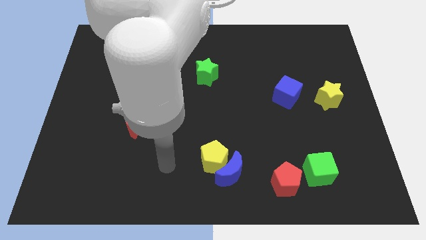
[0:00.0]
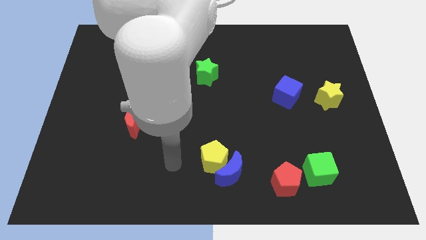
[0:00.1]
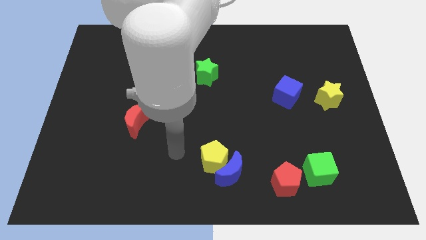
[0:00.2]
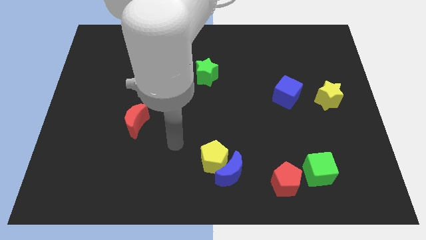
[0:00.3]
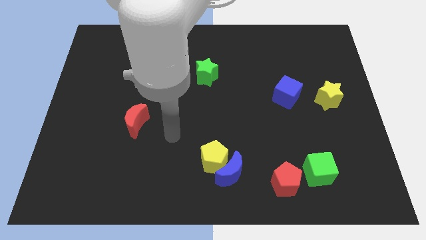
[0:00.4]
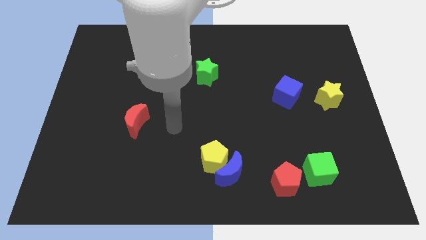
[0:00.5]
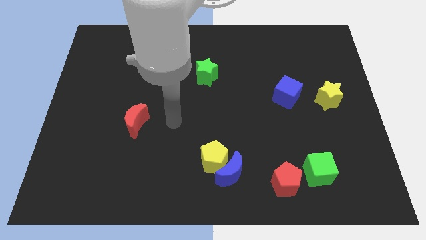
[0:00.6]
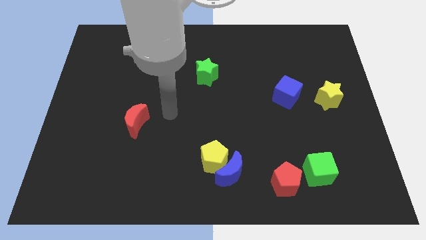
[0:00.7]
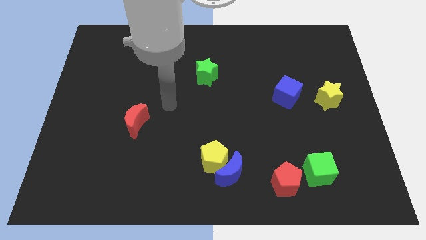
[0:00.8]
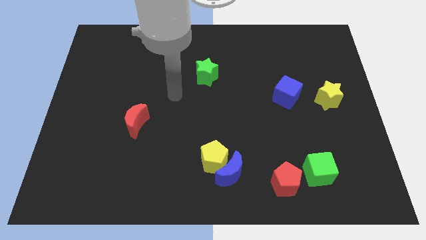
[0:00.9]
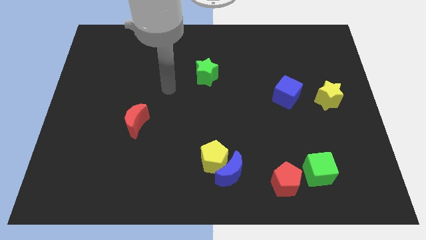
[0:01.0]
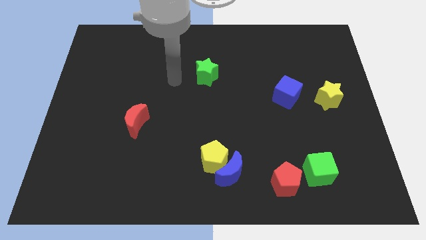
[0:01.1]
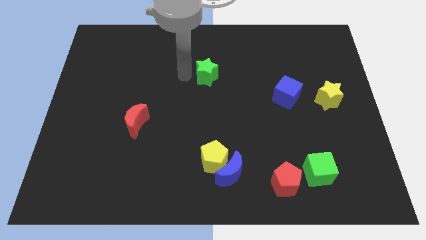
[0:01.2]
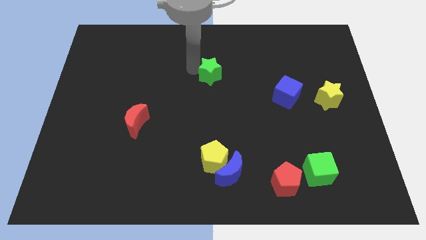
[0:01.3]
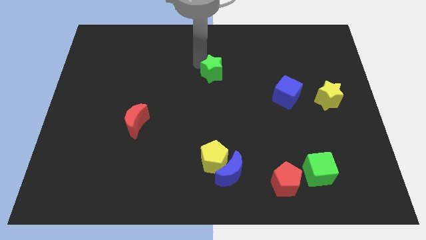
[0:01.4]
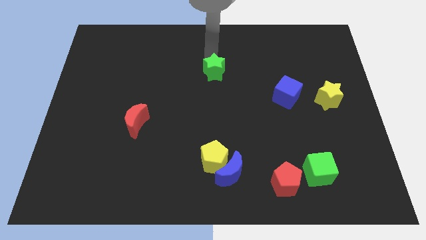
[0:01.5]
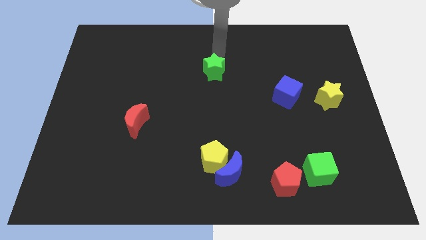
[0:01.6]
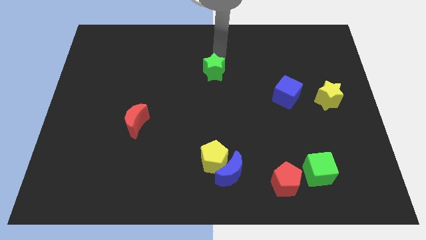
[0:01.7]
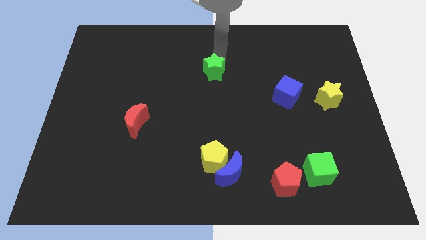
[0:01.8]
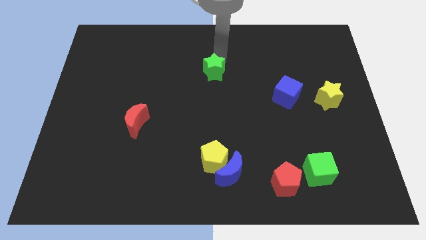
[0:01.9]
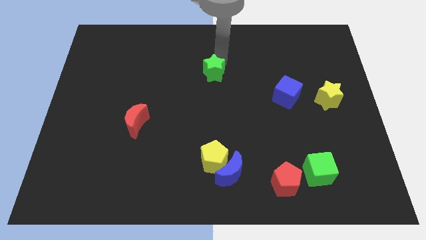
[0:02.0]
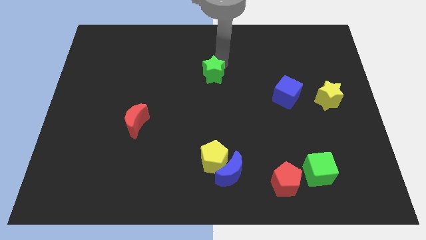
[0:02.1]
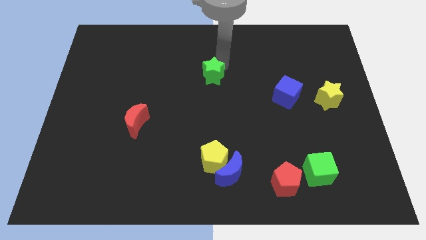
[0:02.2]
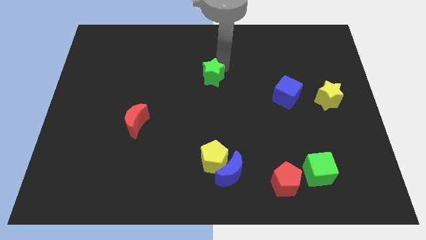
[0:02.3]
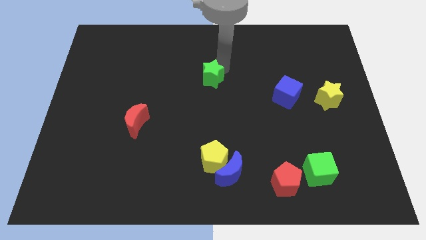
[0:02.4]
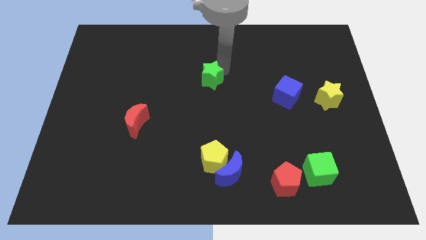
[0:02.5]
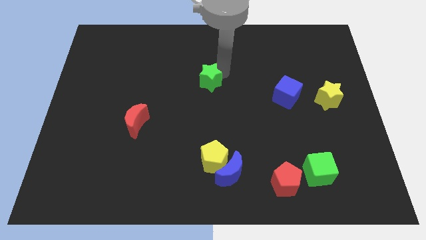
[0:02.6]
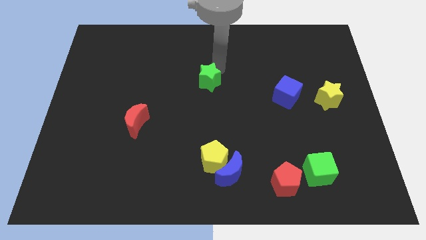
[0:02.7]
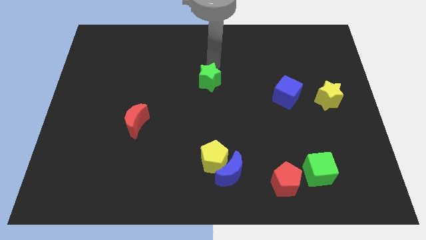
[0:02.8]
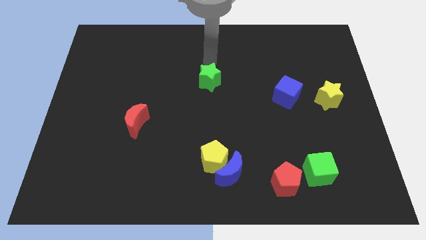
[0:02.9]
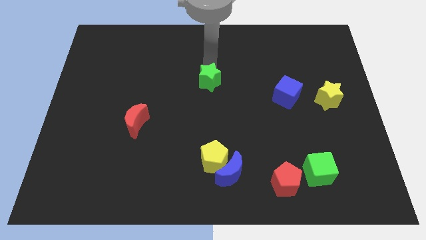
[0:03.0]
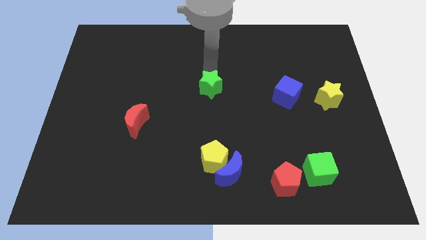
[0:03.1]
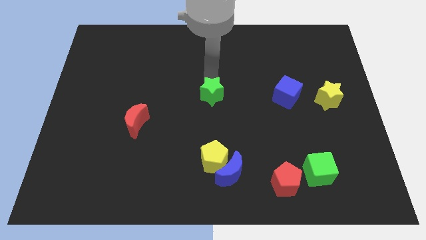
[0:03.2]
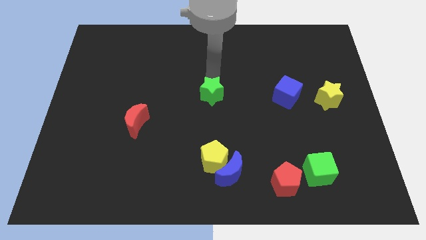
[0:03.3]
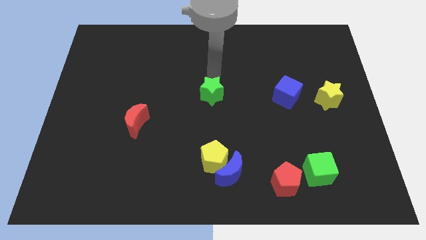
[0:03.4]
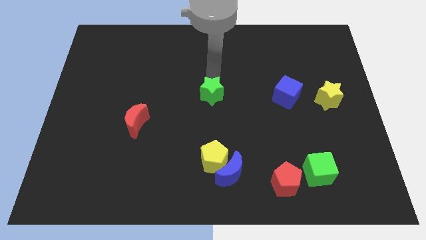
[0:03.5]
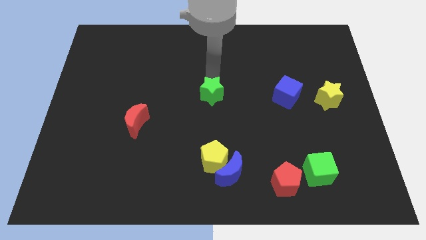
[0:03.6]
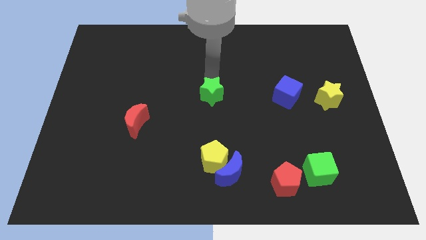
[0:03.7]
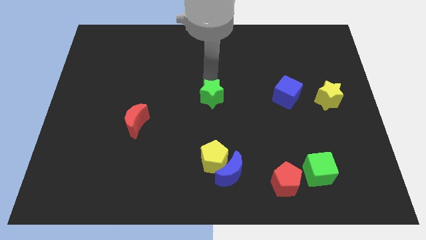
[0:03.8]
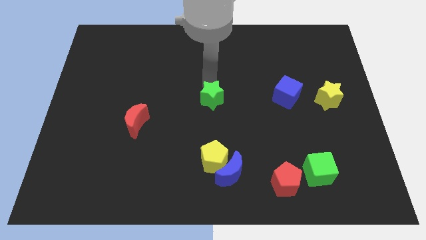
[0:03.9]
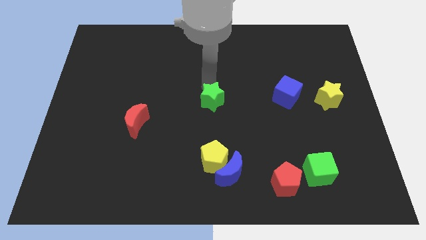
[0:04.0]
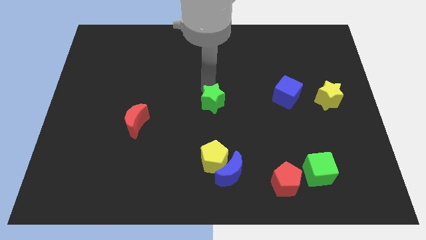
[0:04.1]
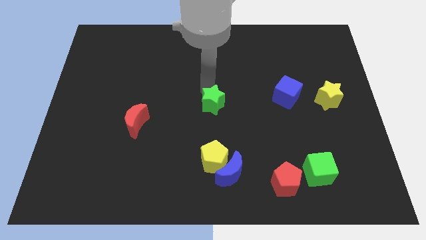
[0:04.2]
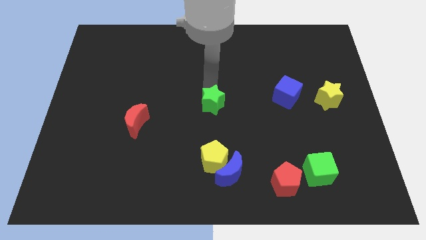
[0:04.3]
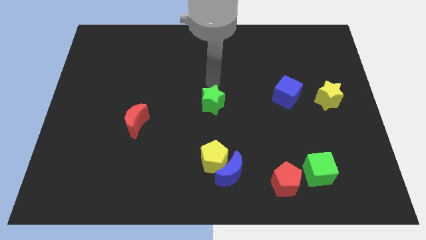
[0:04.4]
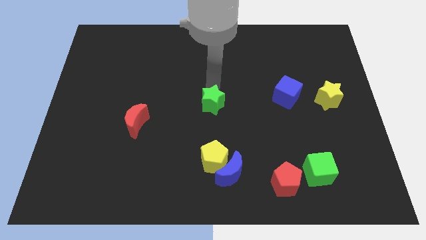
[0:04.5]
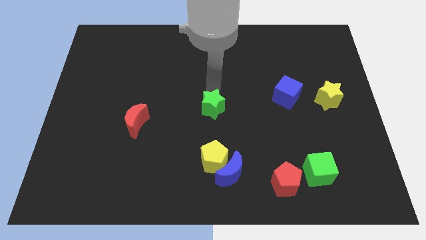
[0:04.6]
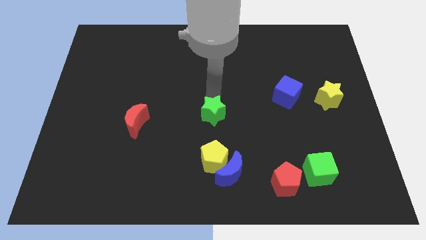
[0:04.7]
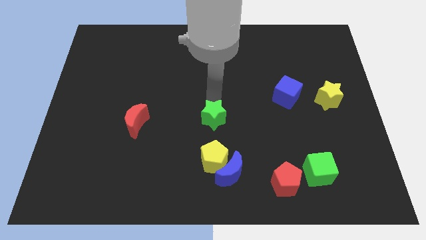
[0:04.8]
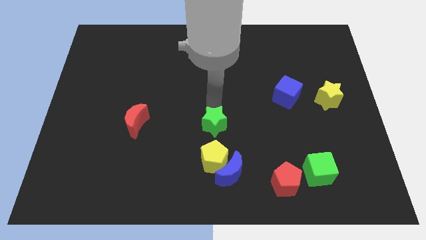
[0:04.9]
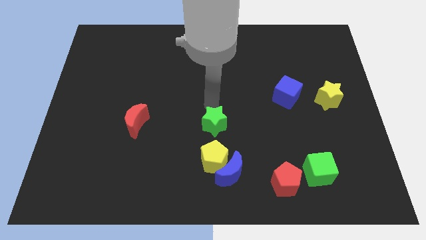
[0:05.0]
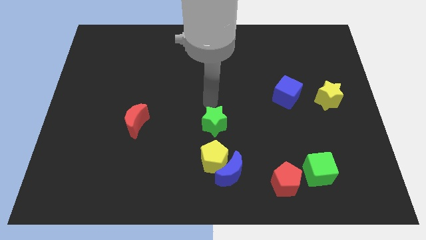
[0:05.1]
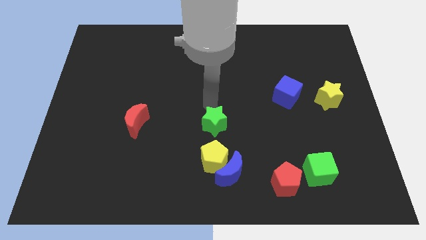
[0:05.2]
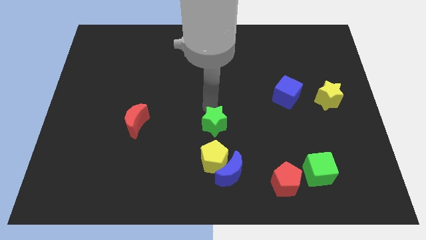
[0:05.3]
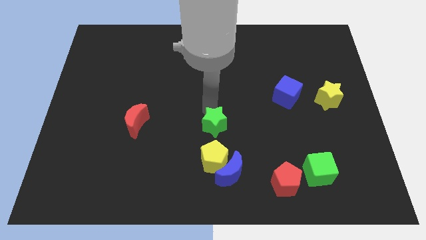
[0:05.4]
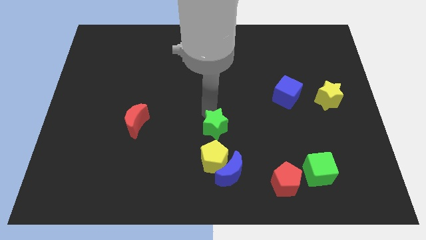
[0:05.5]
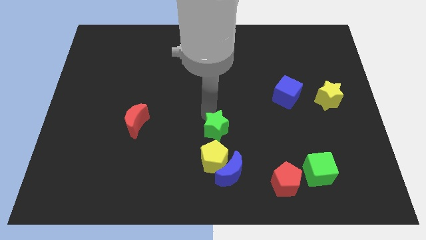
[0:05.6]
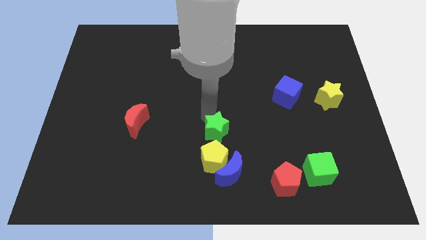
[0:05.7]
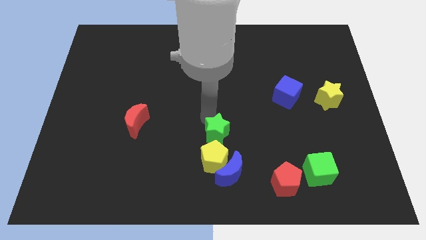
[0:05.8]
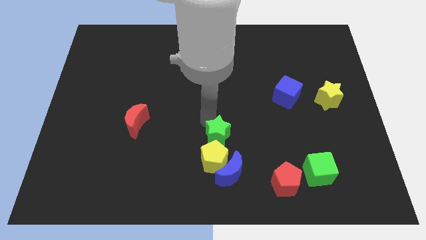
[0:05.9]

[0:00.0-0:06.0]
slide the green star next to the yellow pentagon

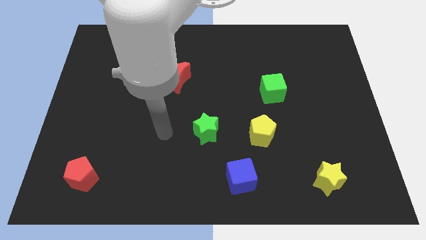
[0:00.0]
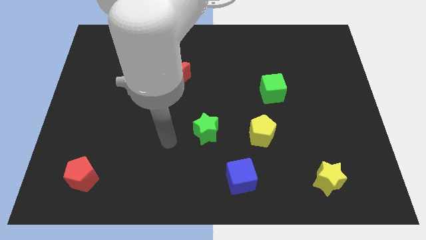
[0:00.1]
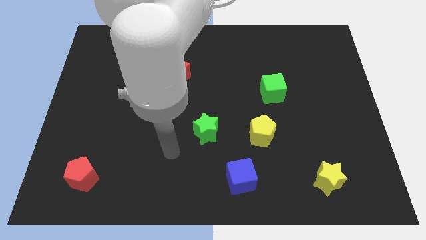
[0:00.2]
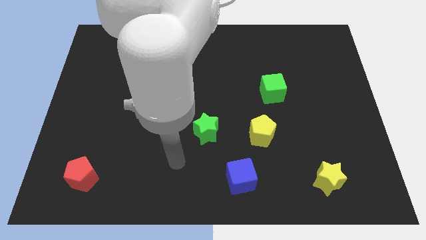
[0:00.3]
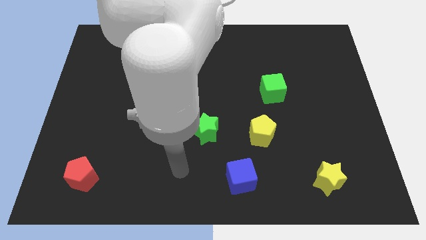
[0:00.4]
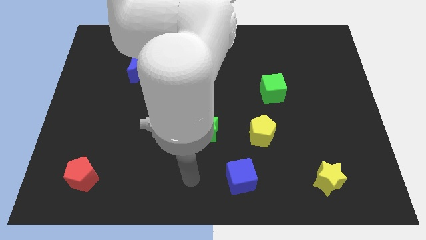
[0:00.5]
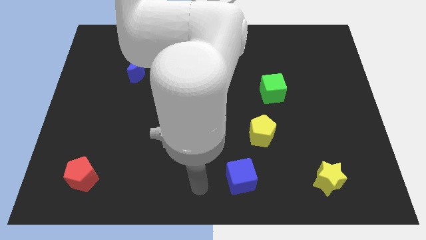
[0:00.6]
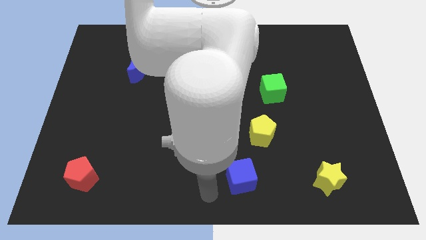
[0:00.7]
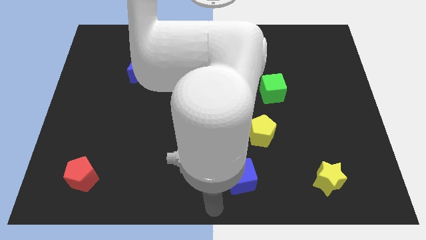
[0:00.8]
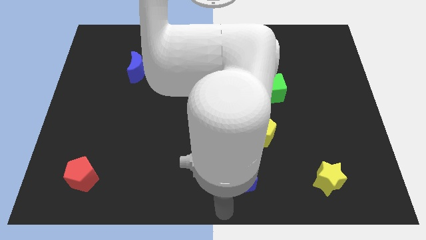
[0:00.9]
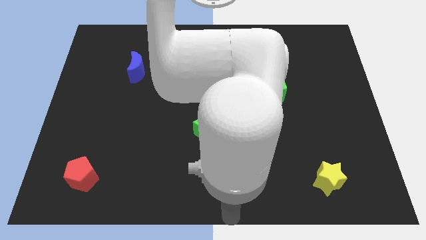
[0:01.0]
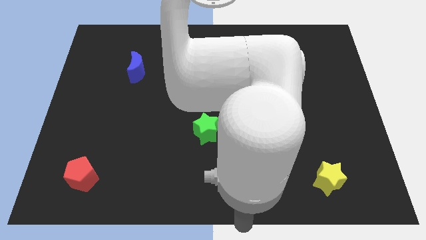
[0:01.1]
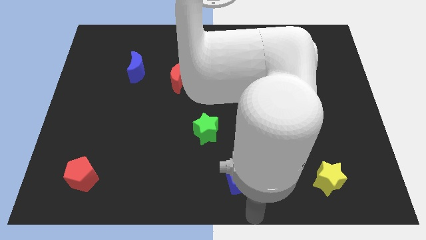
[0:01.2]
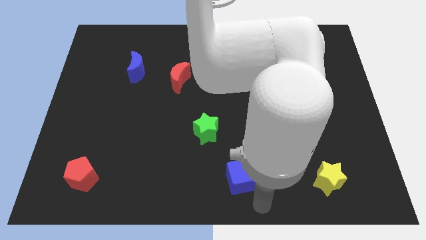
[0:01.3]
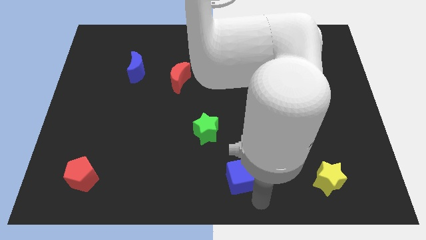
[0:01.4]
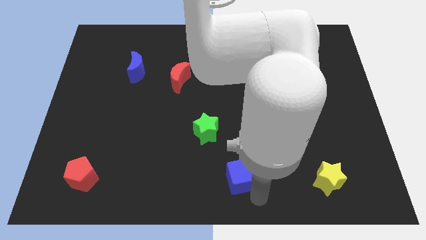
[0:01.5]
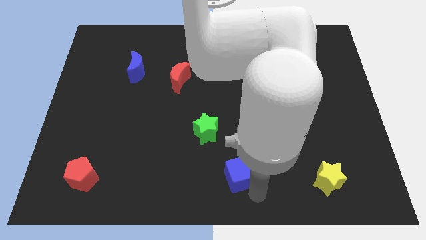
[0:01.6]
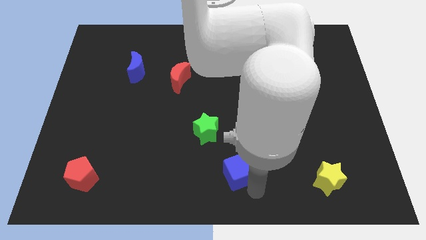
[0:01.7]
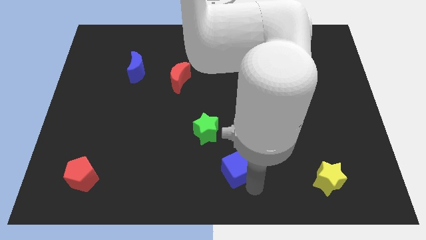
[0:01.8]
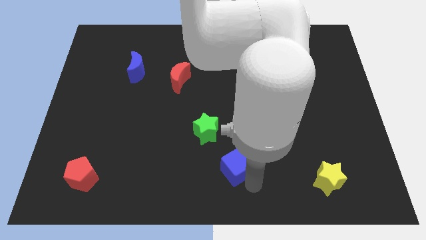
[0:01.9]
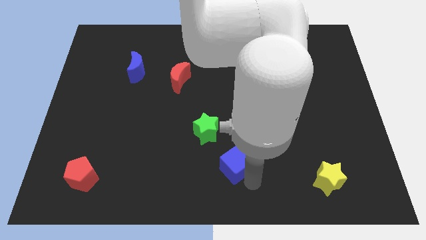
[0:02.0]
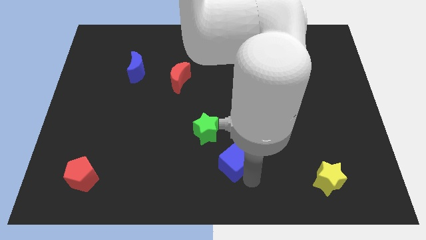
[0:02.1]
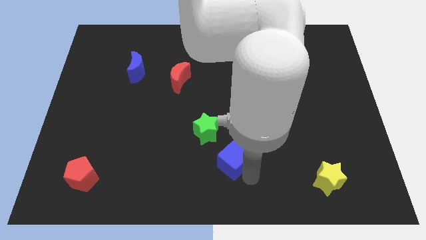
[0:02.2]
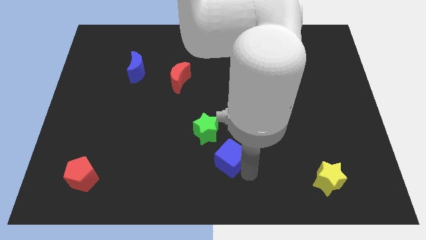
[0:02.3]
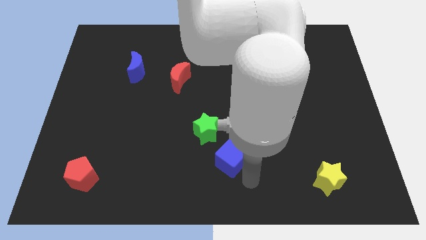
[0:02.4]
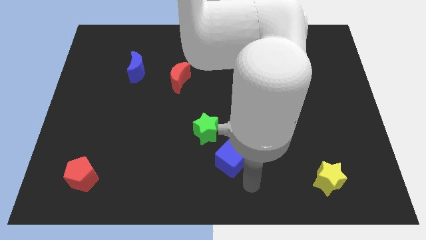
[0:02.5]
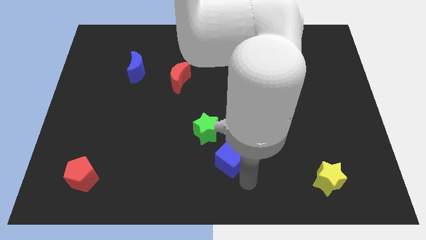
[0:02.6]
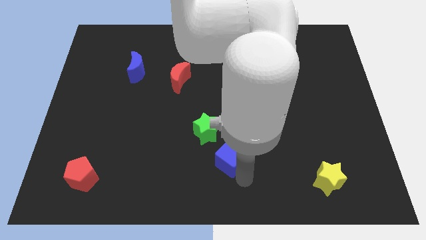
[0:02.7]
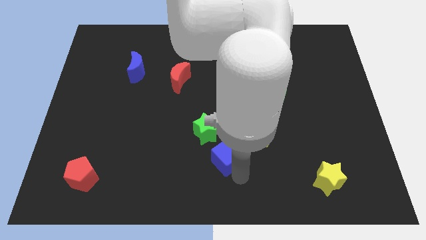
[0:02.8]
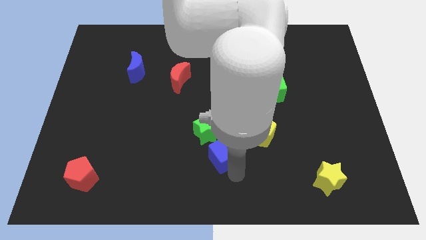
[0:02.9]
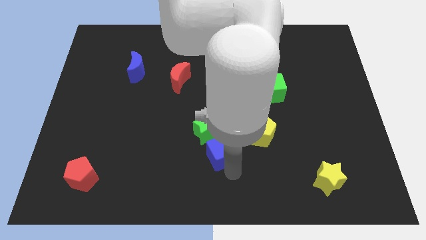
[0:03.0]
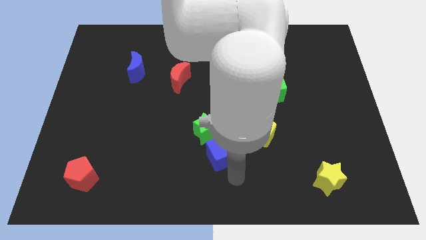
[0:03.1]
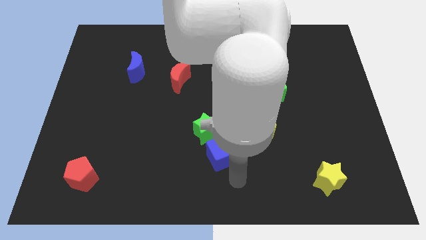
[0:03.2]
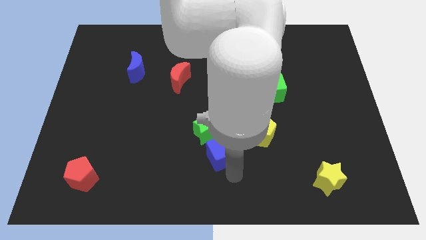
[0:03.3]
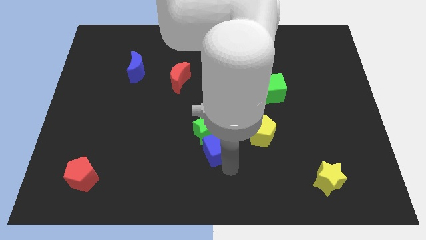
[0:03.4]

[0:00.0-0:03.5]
move the blue cube to the green star
